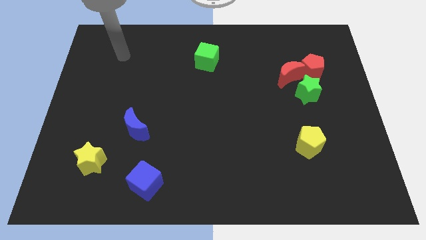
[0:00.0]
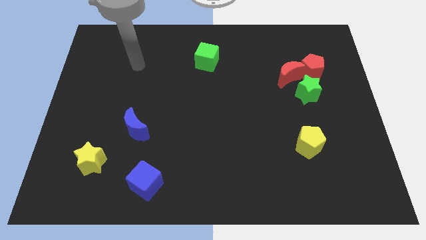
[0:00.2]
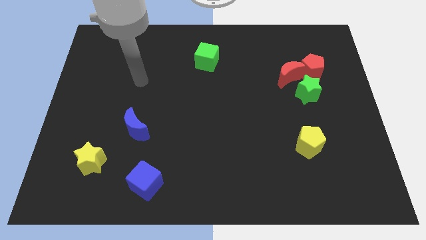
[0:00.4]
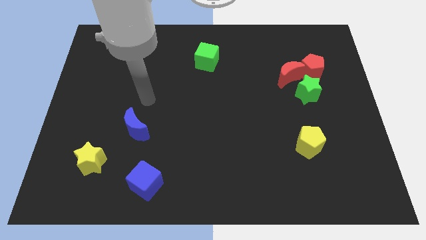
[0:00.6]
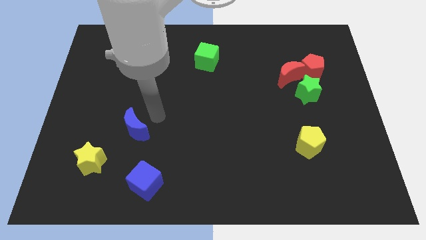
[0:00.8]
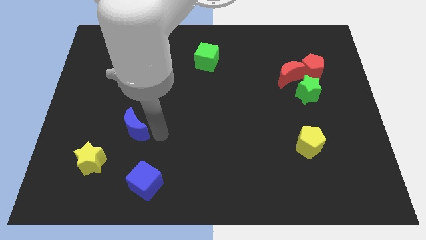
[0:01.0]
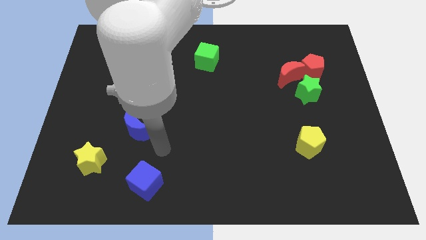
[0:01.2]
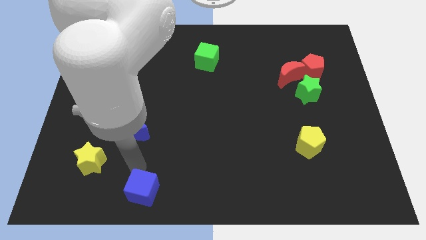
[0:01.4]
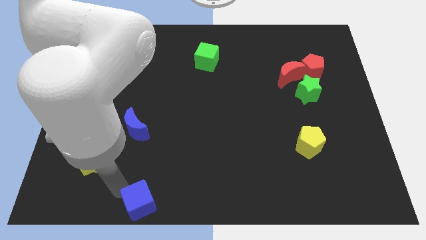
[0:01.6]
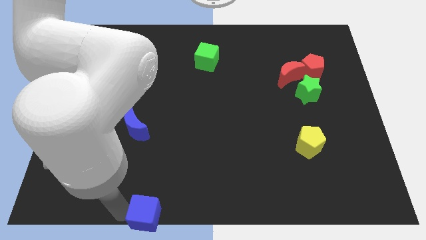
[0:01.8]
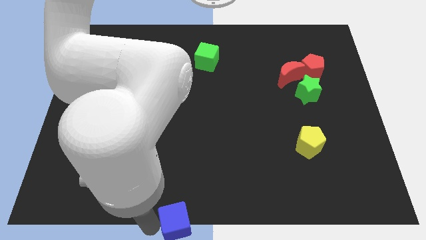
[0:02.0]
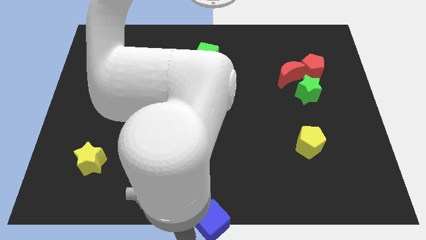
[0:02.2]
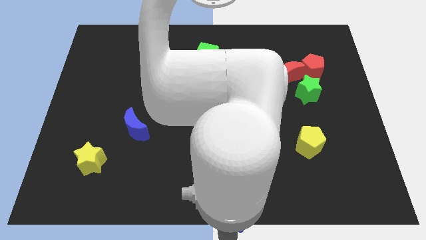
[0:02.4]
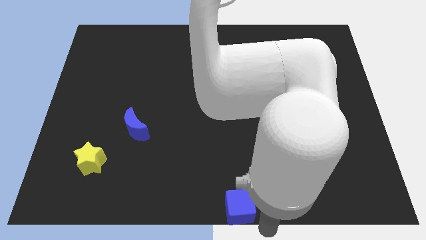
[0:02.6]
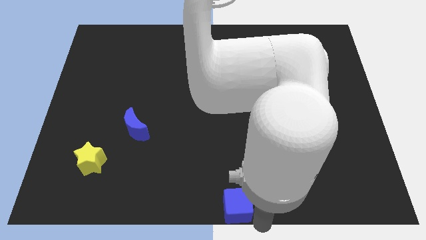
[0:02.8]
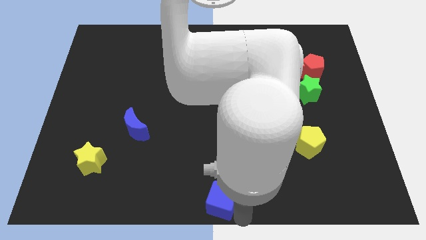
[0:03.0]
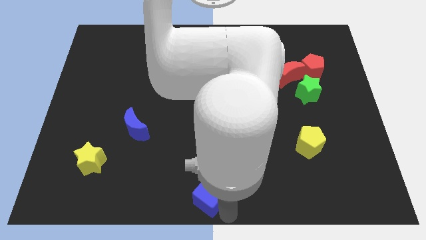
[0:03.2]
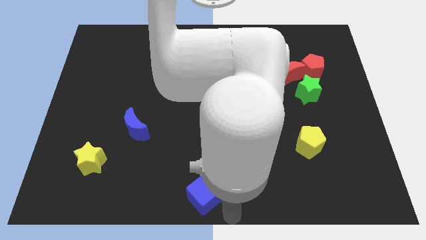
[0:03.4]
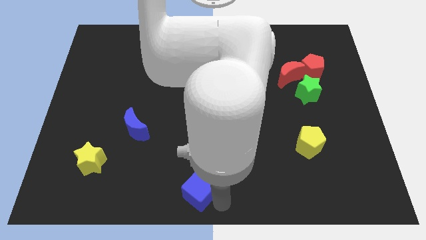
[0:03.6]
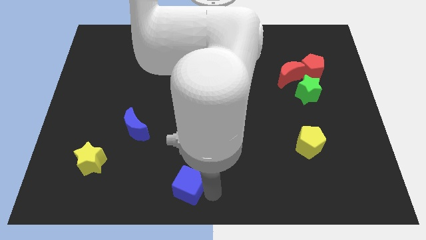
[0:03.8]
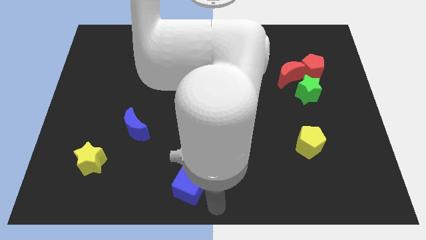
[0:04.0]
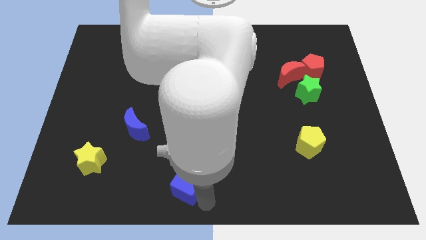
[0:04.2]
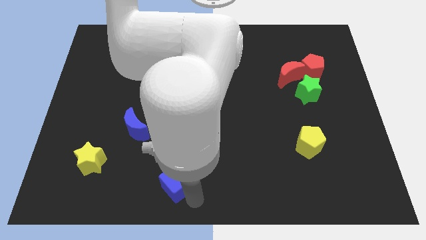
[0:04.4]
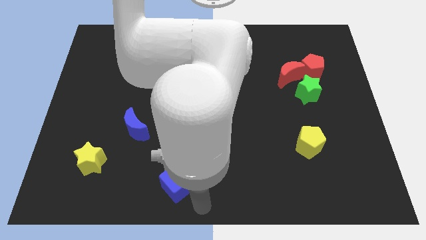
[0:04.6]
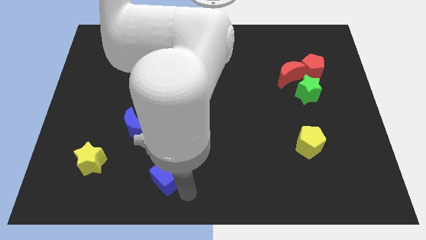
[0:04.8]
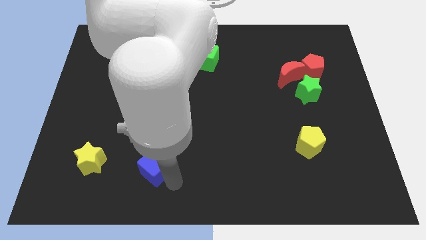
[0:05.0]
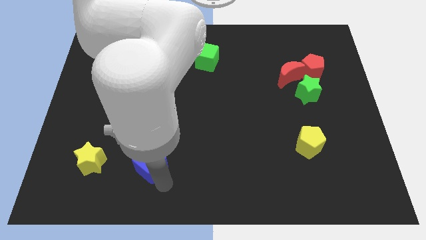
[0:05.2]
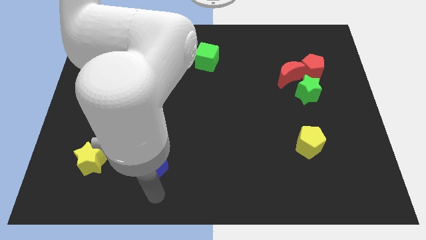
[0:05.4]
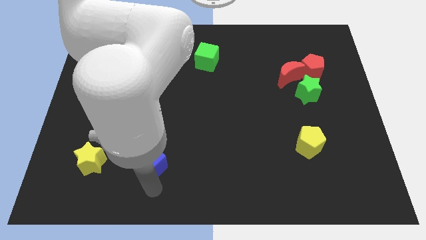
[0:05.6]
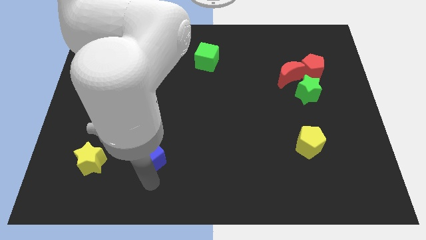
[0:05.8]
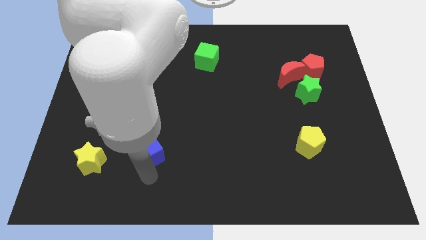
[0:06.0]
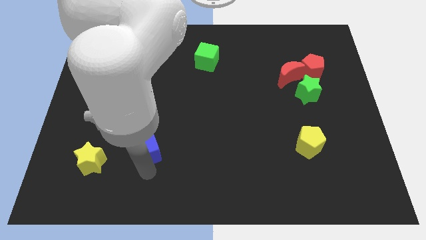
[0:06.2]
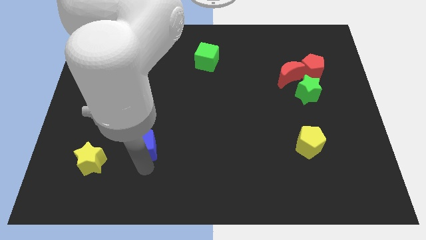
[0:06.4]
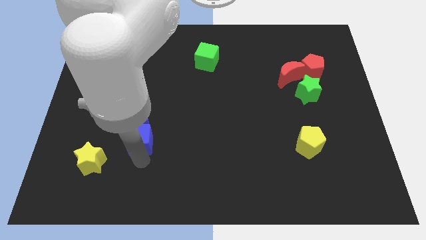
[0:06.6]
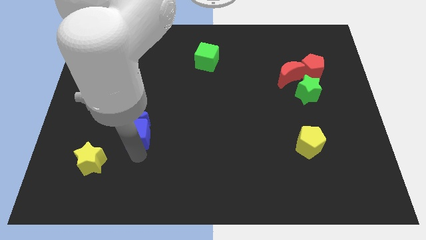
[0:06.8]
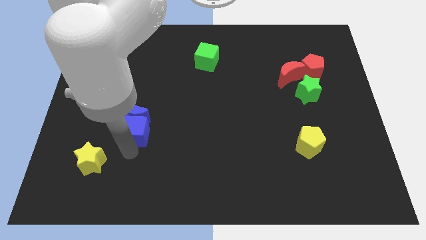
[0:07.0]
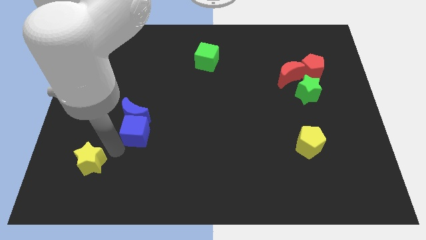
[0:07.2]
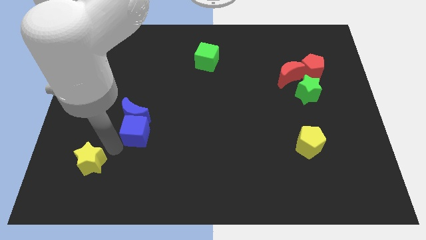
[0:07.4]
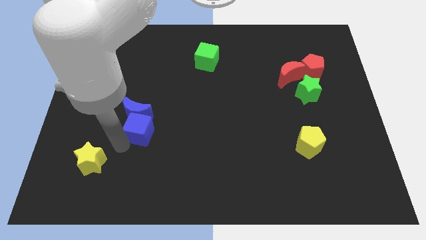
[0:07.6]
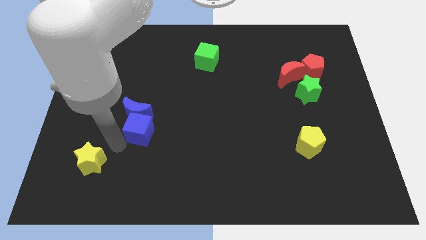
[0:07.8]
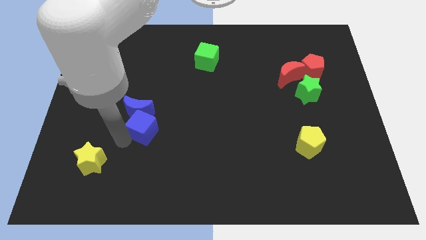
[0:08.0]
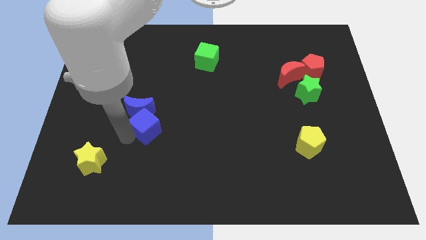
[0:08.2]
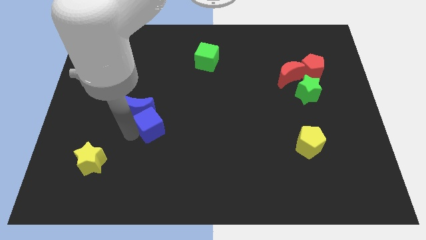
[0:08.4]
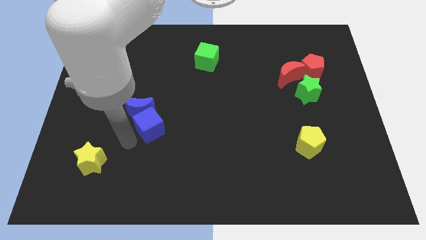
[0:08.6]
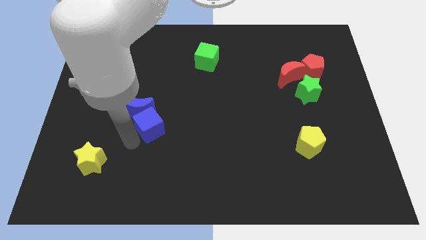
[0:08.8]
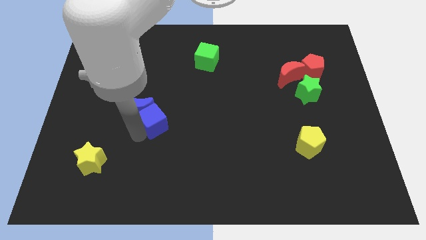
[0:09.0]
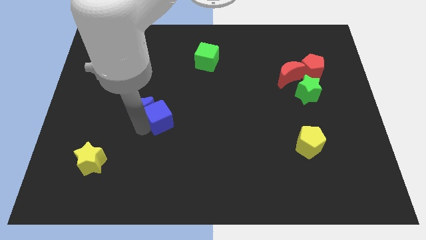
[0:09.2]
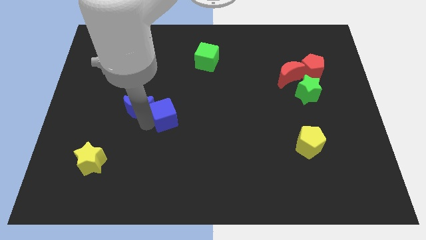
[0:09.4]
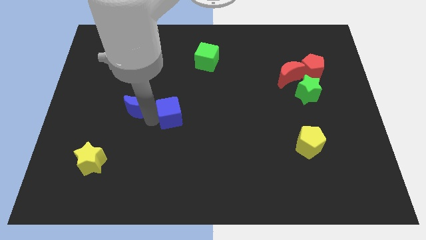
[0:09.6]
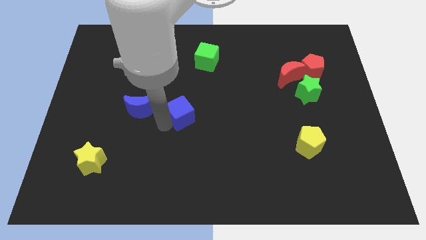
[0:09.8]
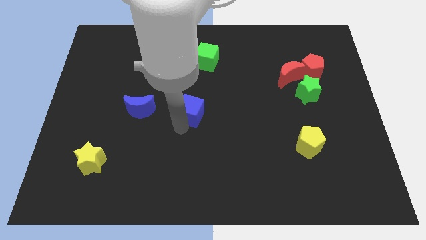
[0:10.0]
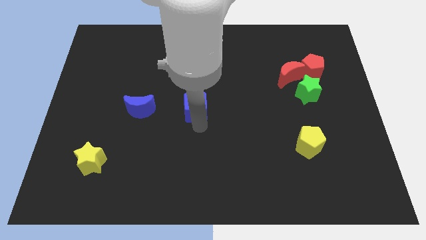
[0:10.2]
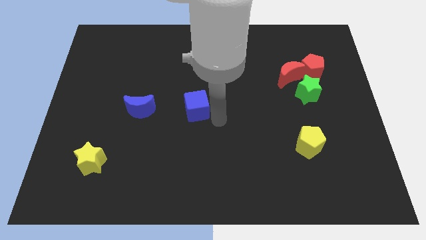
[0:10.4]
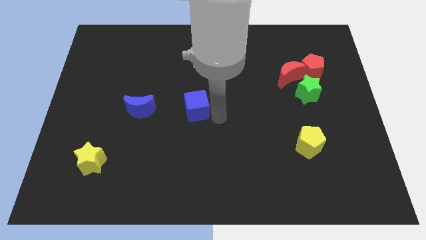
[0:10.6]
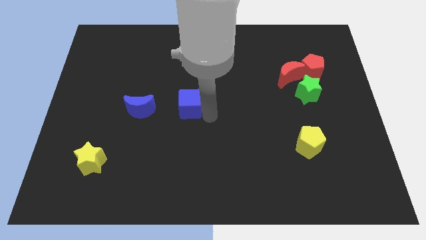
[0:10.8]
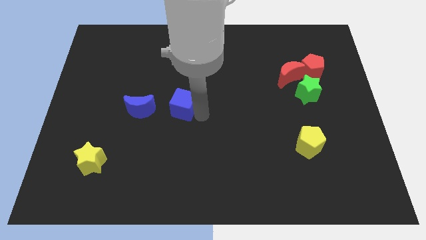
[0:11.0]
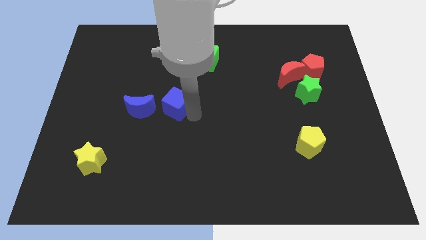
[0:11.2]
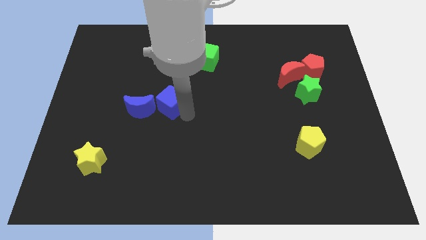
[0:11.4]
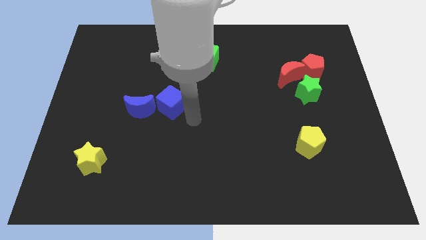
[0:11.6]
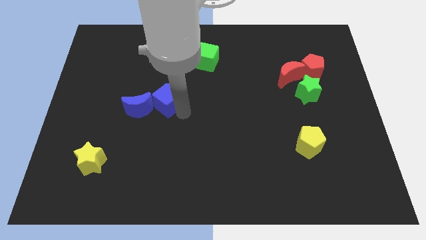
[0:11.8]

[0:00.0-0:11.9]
slide the blue cube upwards

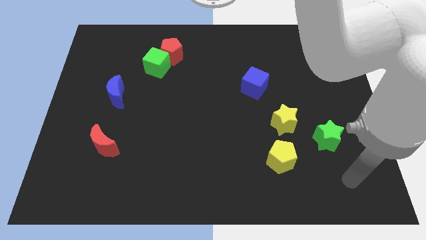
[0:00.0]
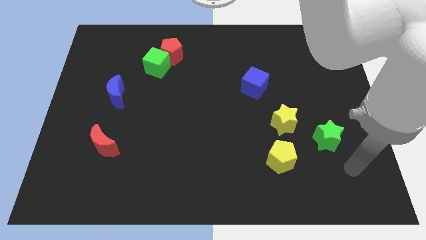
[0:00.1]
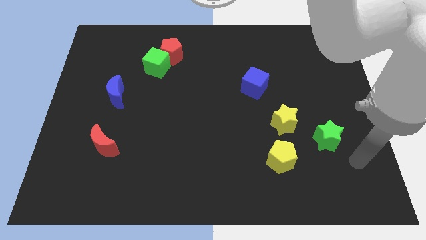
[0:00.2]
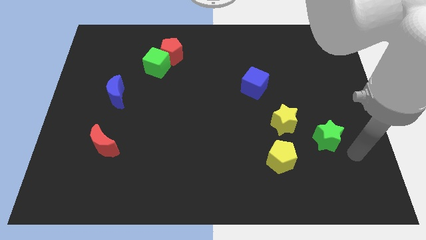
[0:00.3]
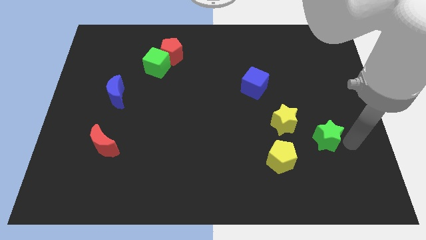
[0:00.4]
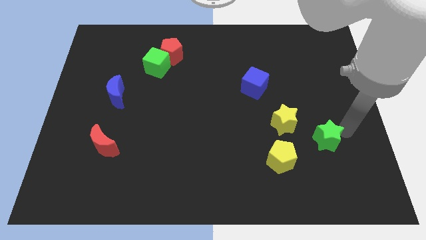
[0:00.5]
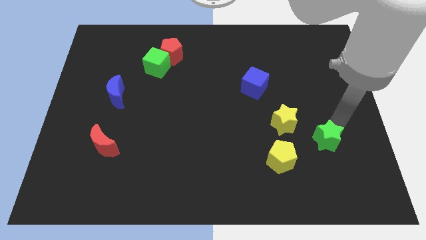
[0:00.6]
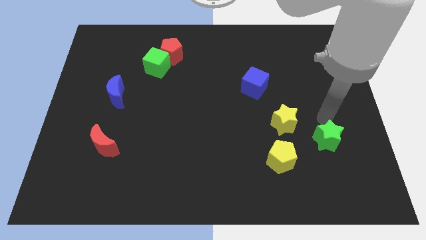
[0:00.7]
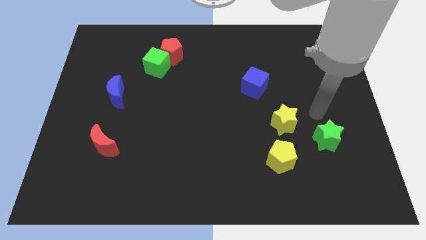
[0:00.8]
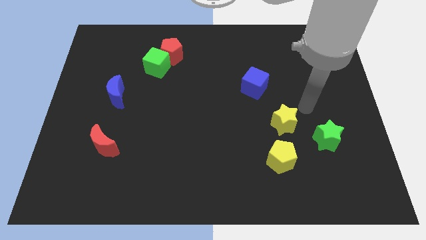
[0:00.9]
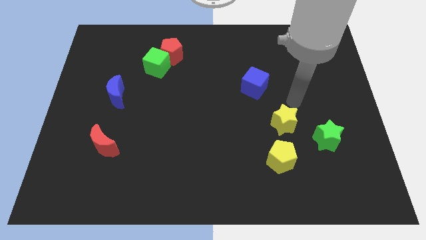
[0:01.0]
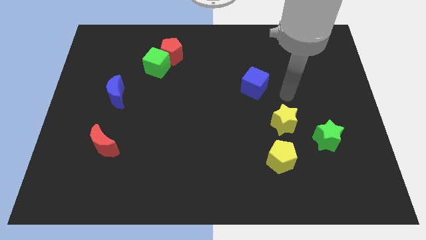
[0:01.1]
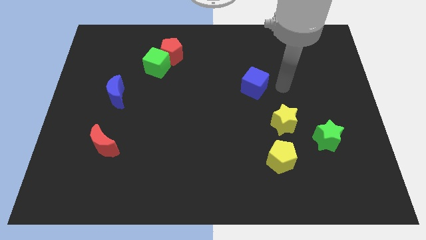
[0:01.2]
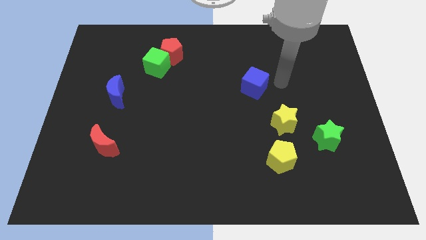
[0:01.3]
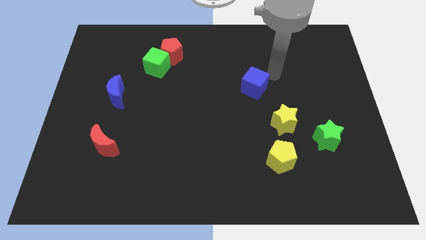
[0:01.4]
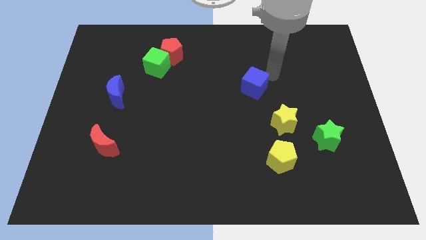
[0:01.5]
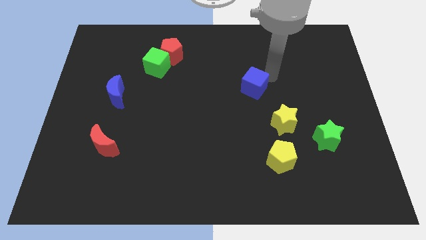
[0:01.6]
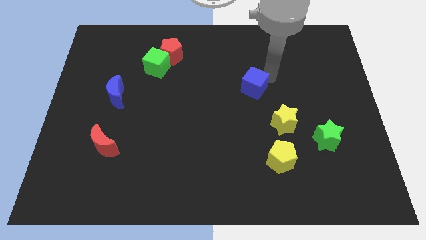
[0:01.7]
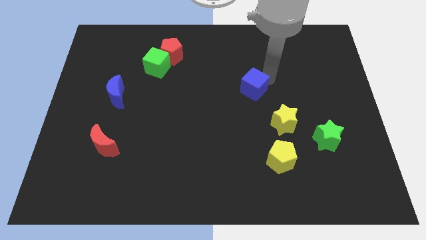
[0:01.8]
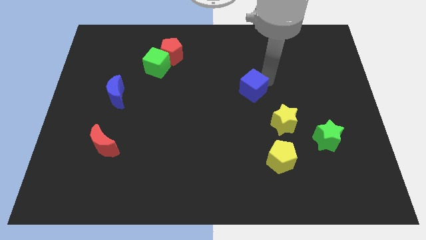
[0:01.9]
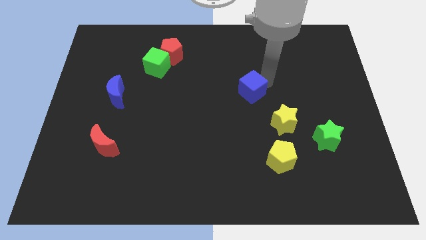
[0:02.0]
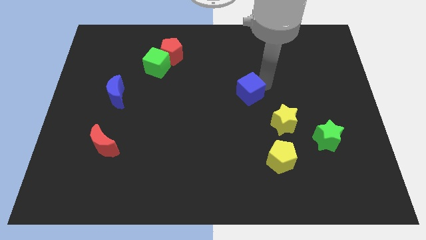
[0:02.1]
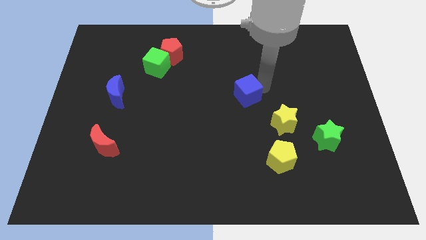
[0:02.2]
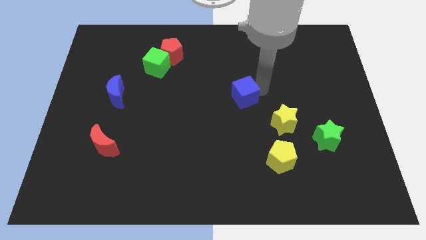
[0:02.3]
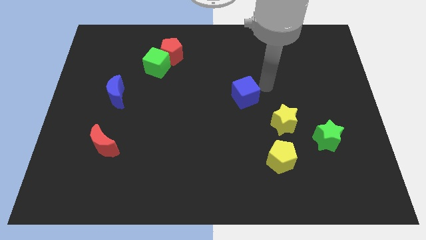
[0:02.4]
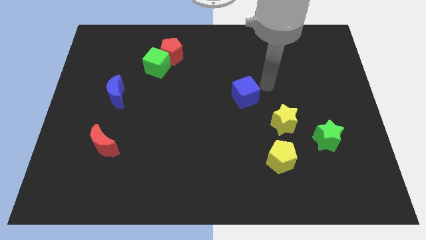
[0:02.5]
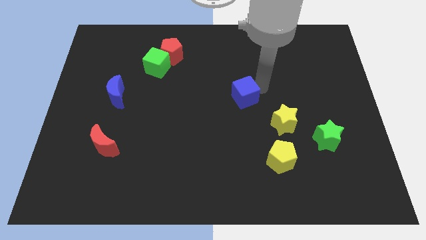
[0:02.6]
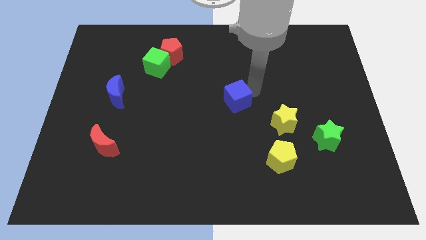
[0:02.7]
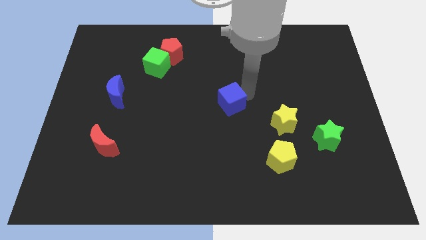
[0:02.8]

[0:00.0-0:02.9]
slide the blue cube down and then left slightly
